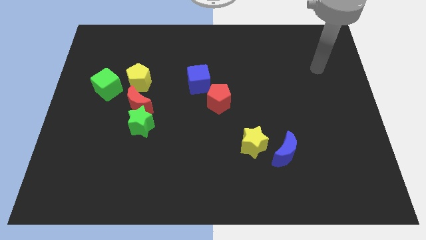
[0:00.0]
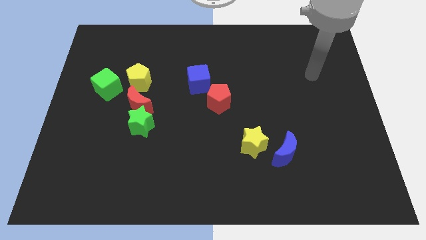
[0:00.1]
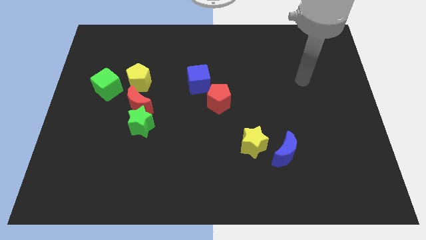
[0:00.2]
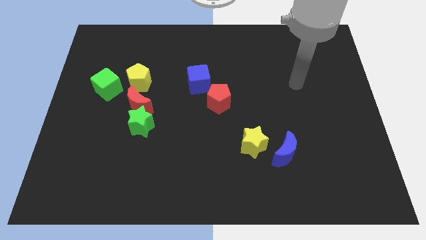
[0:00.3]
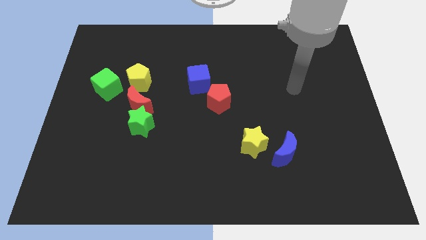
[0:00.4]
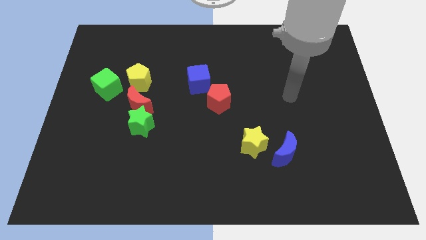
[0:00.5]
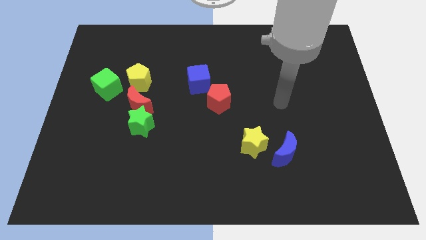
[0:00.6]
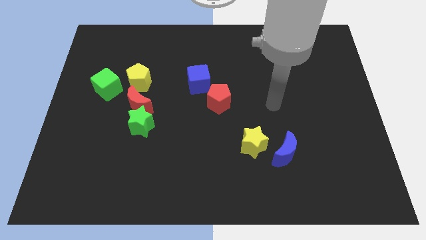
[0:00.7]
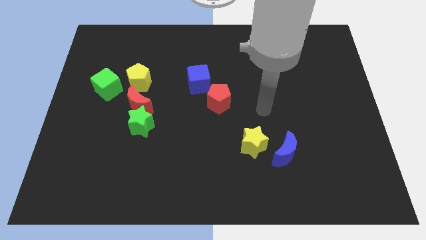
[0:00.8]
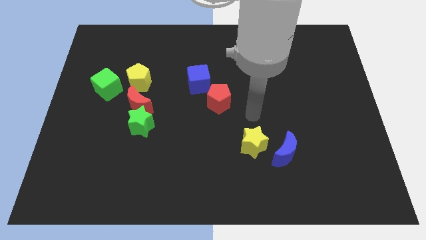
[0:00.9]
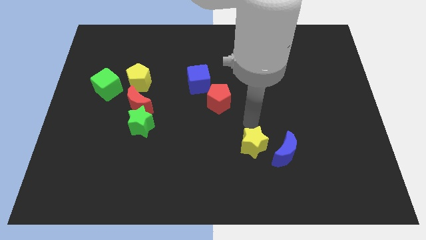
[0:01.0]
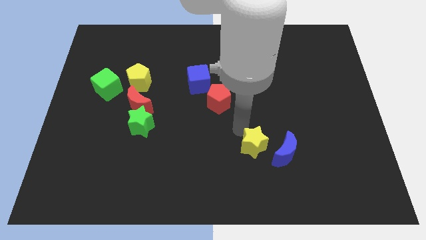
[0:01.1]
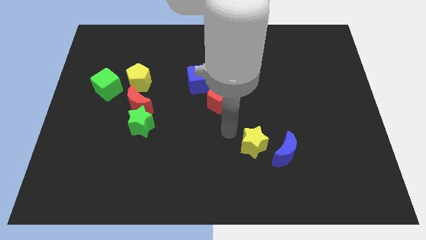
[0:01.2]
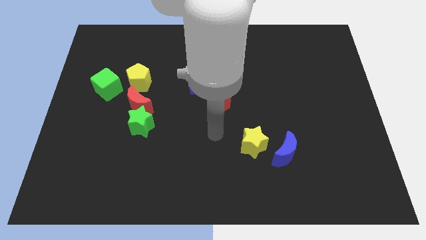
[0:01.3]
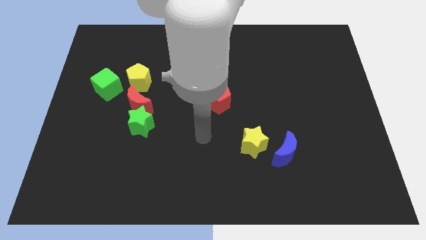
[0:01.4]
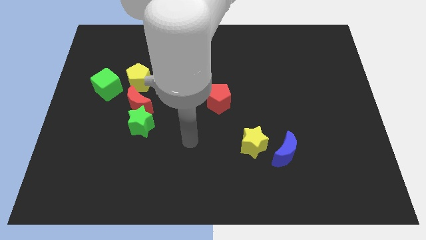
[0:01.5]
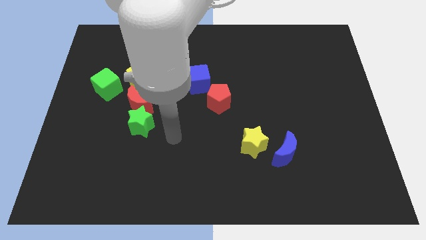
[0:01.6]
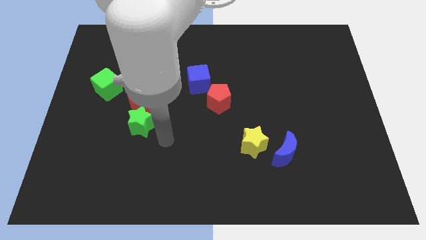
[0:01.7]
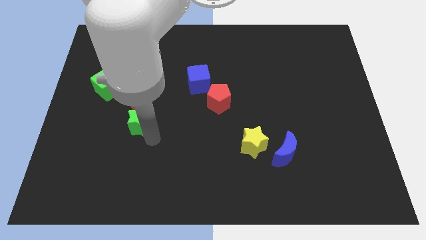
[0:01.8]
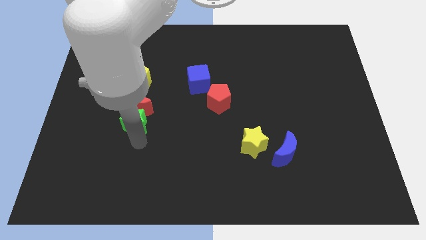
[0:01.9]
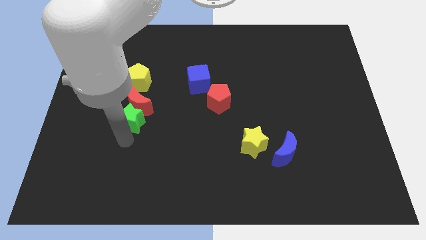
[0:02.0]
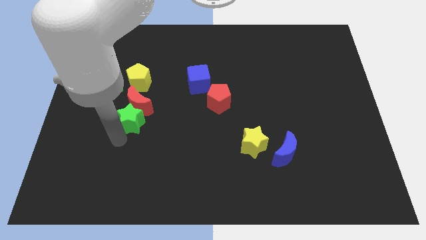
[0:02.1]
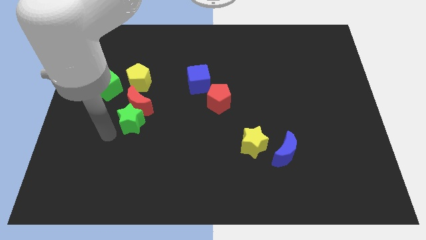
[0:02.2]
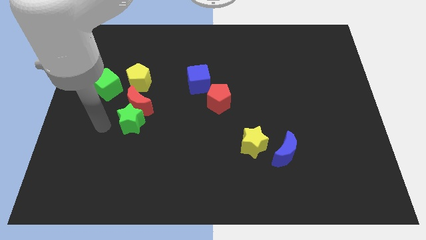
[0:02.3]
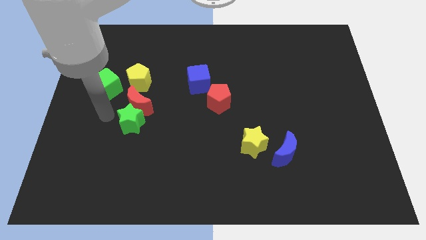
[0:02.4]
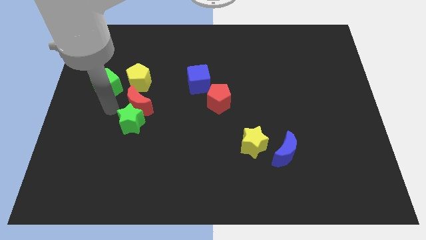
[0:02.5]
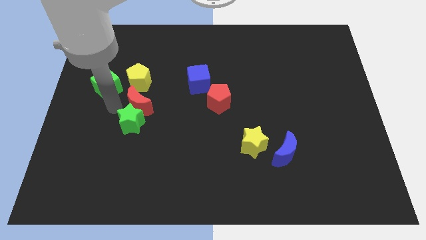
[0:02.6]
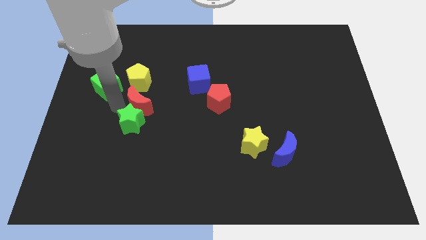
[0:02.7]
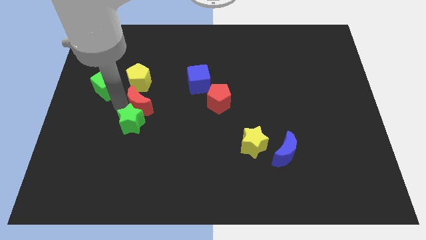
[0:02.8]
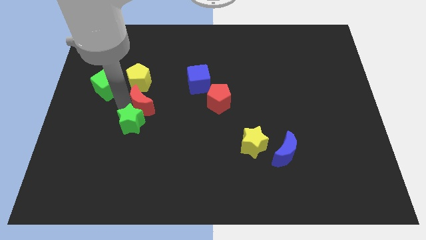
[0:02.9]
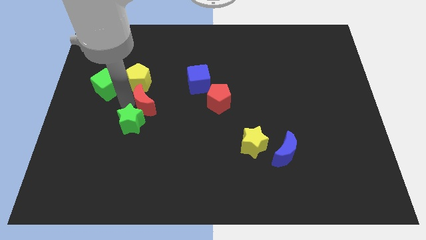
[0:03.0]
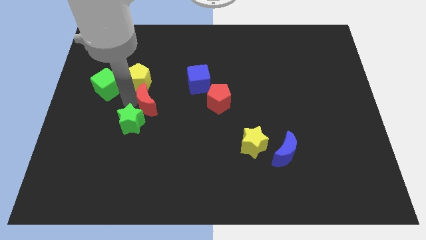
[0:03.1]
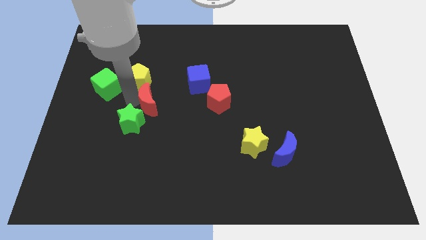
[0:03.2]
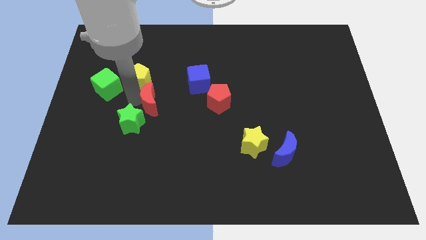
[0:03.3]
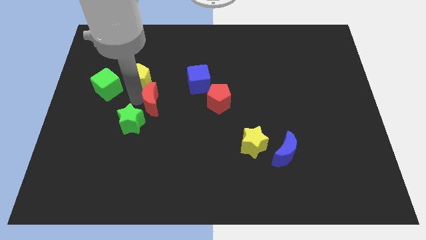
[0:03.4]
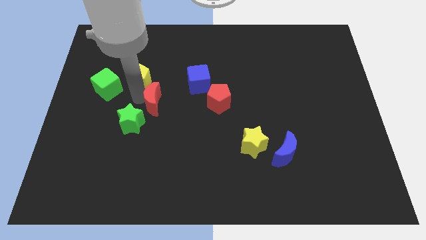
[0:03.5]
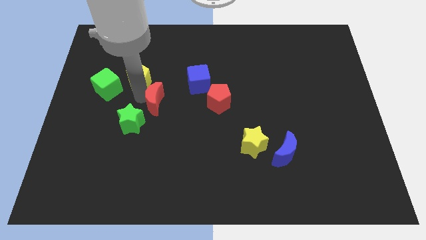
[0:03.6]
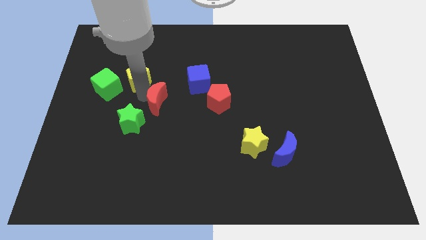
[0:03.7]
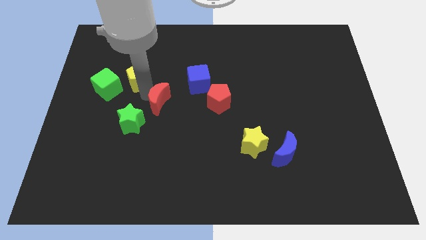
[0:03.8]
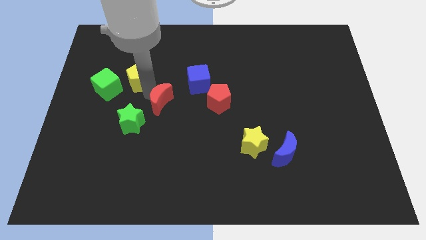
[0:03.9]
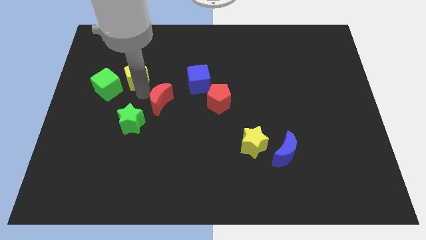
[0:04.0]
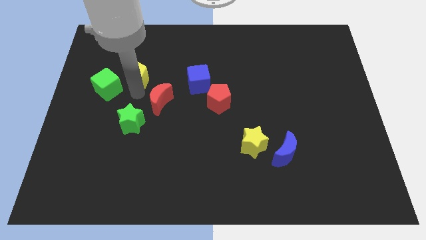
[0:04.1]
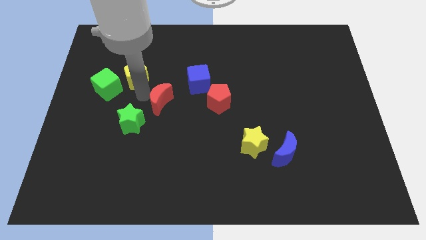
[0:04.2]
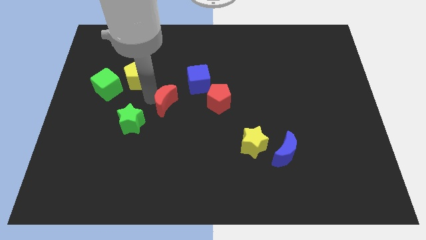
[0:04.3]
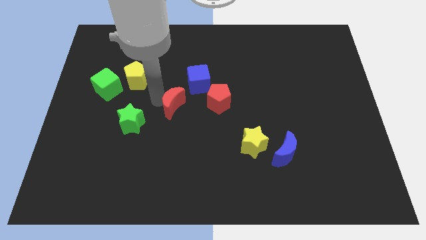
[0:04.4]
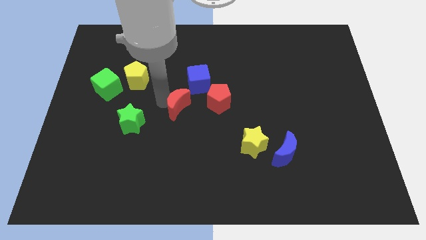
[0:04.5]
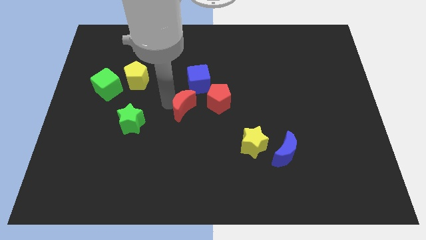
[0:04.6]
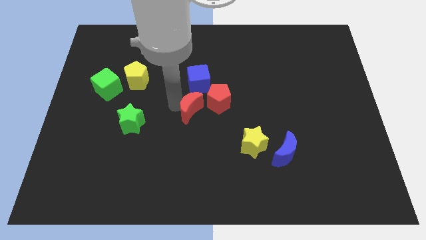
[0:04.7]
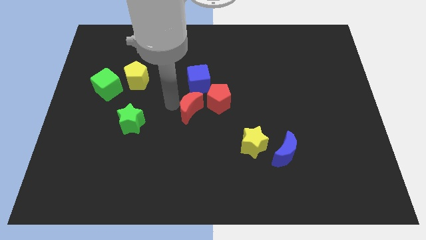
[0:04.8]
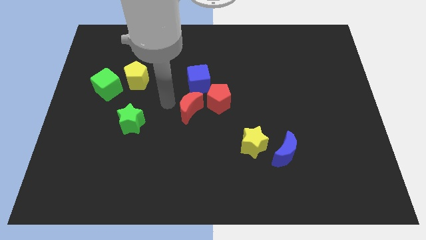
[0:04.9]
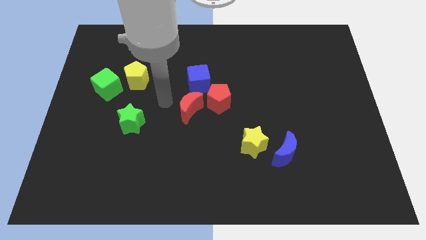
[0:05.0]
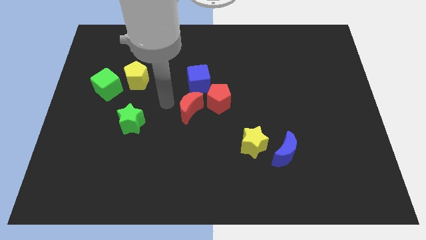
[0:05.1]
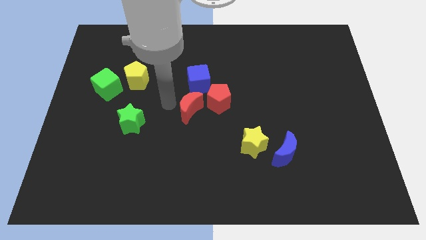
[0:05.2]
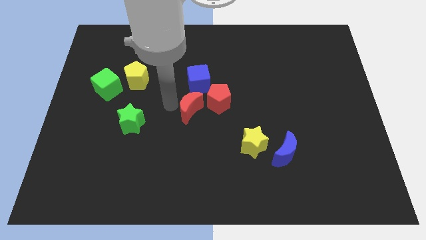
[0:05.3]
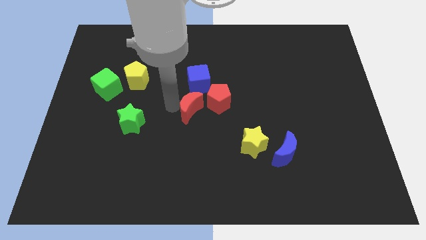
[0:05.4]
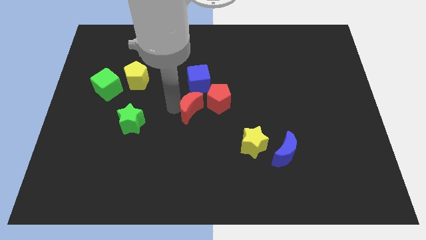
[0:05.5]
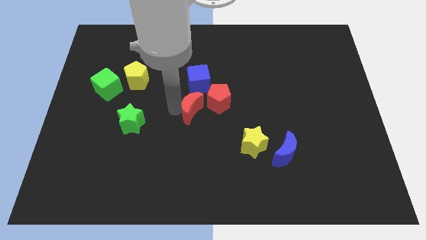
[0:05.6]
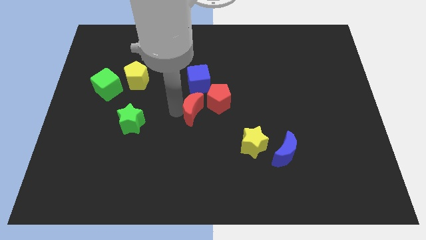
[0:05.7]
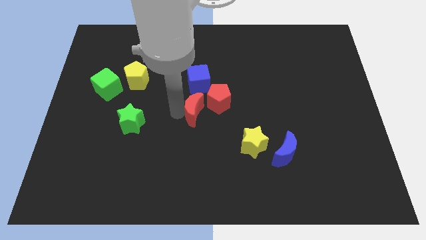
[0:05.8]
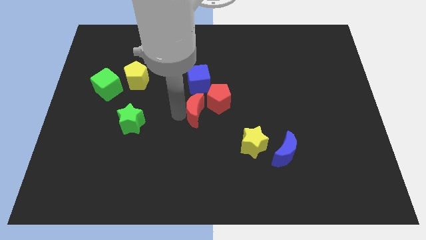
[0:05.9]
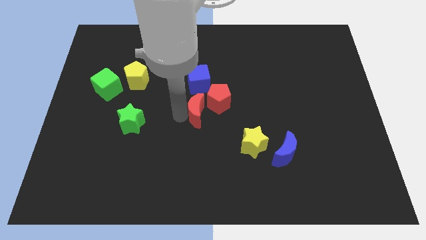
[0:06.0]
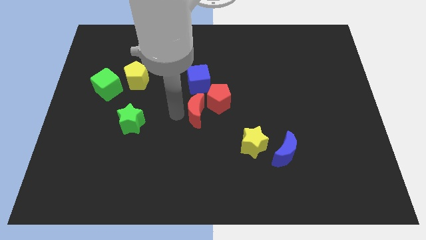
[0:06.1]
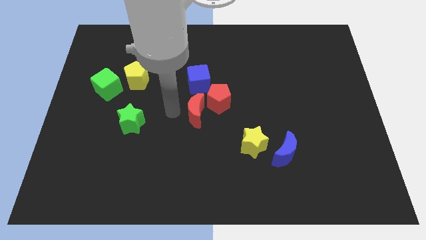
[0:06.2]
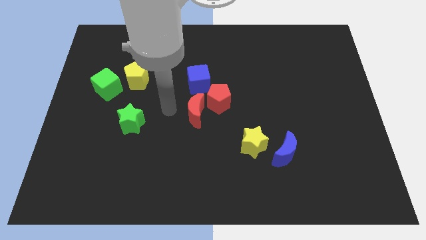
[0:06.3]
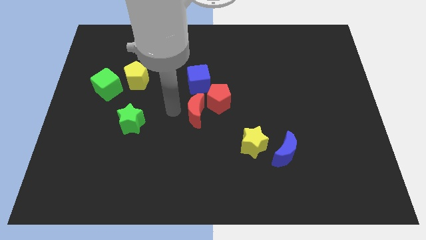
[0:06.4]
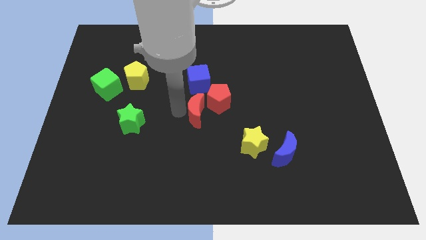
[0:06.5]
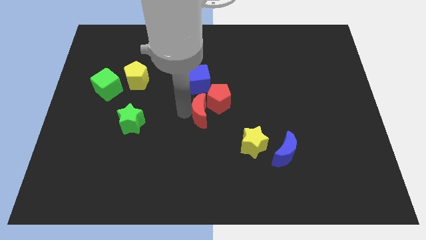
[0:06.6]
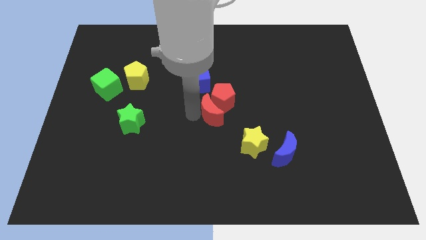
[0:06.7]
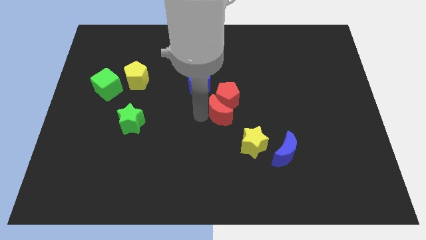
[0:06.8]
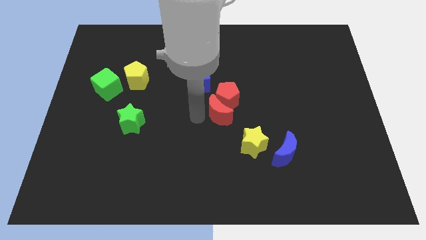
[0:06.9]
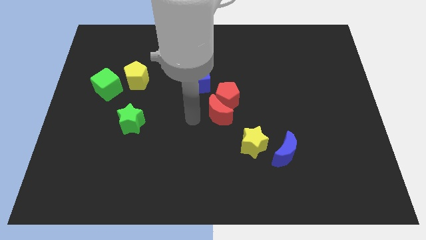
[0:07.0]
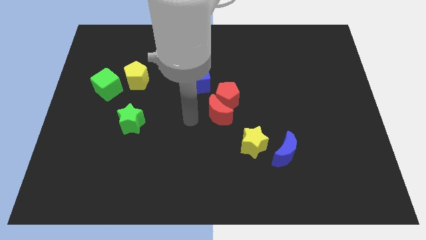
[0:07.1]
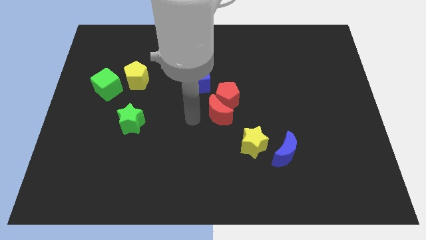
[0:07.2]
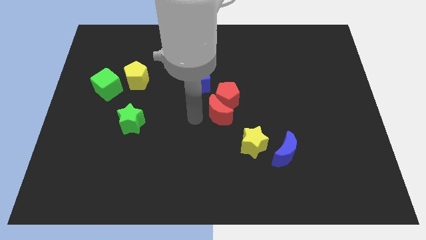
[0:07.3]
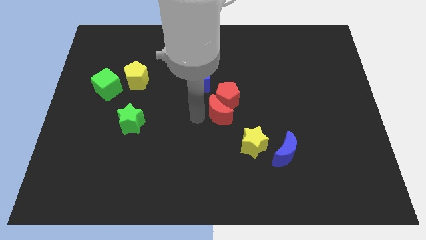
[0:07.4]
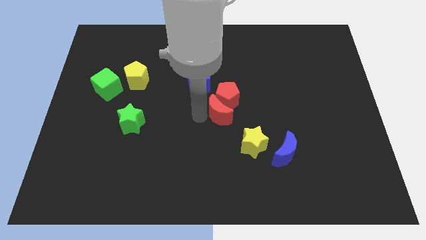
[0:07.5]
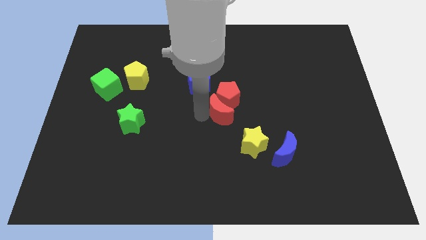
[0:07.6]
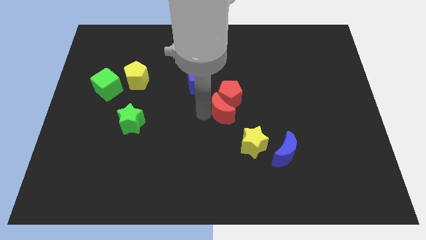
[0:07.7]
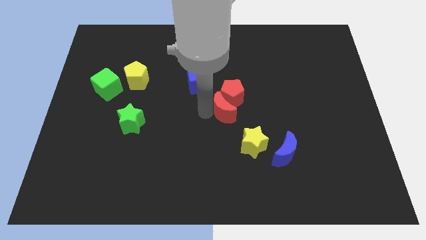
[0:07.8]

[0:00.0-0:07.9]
move the red moon right

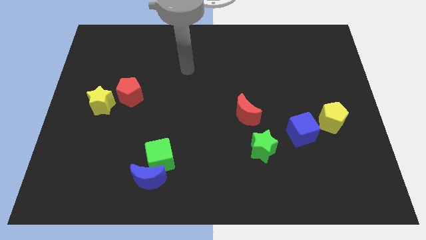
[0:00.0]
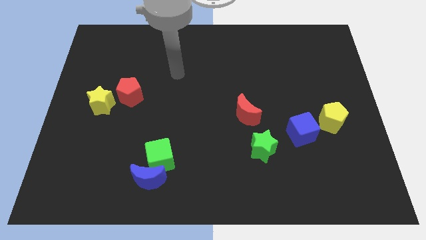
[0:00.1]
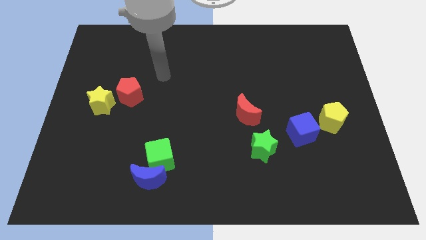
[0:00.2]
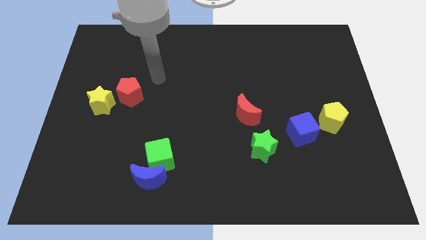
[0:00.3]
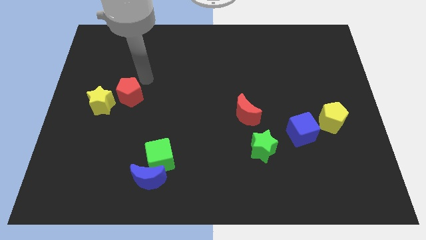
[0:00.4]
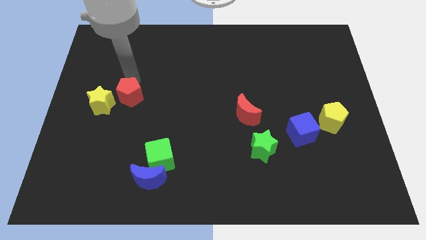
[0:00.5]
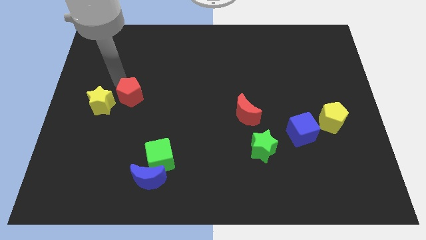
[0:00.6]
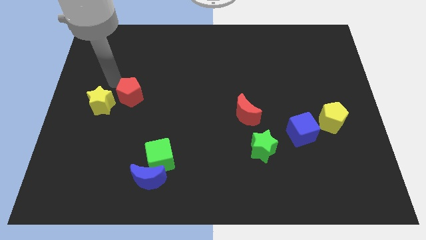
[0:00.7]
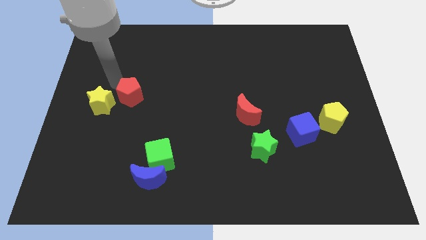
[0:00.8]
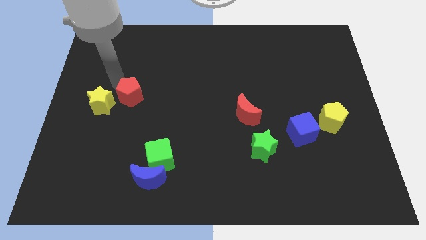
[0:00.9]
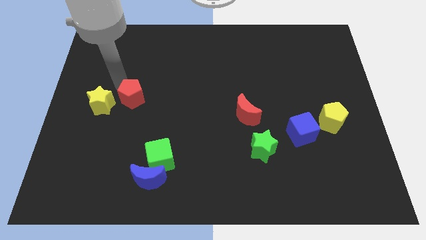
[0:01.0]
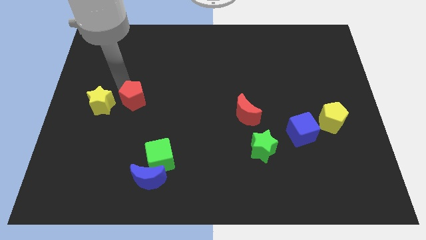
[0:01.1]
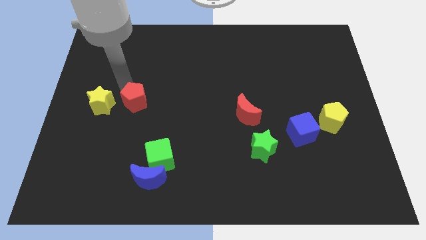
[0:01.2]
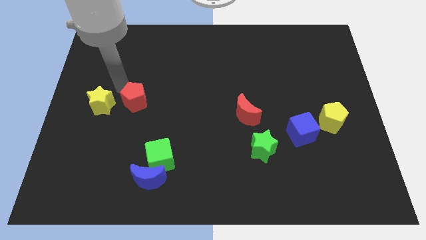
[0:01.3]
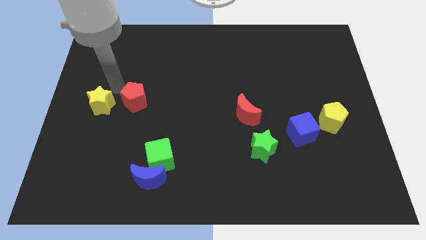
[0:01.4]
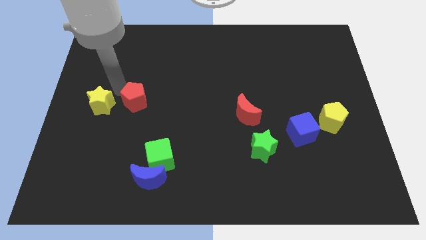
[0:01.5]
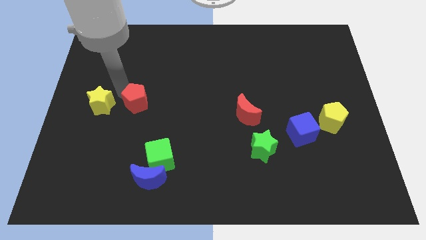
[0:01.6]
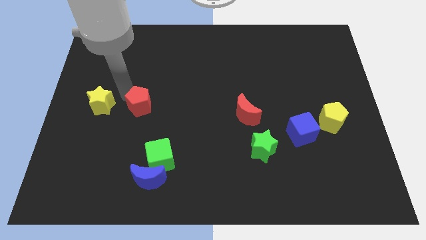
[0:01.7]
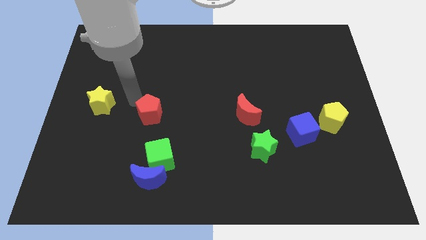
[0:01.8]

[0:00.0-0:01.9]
slightly push the red pentagon downwards and to the right
